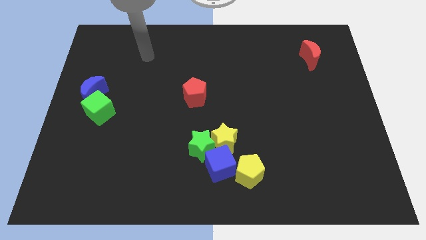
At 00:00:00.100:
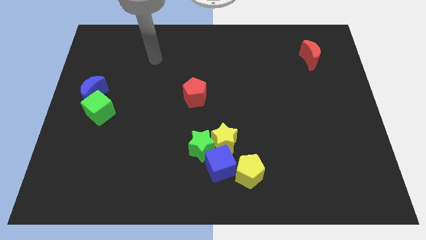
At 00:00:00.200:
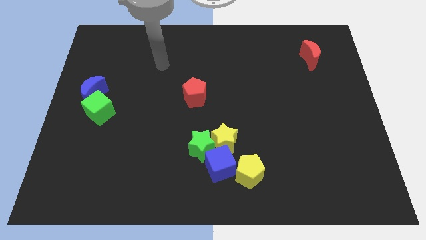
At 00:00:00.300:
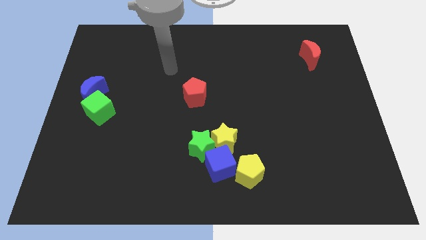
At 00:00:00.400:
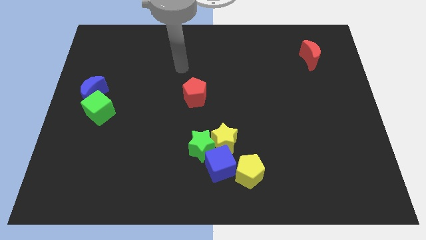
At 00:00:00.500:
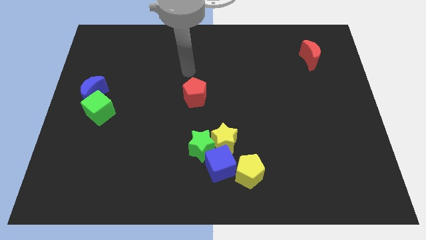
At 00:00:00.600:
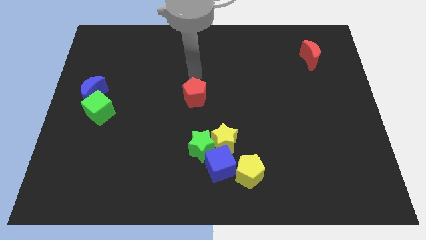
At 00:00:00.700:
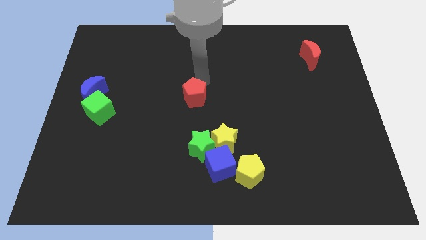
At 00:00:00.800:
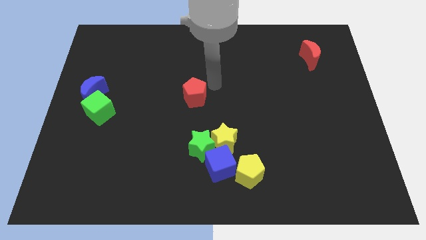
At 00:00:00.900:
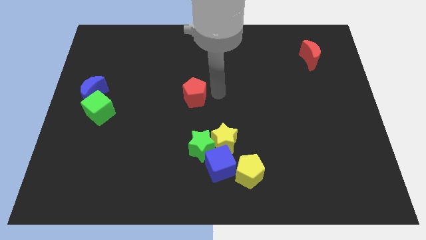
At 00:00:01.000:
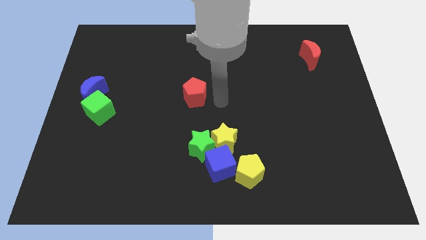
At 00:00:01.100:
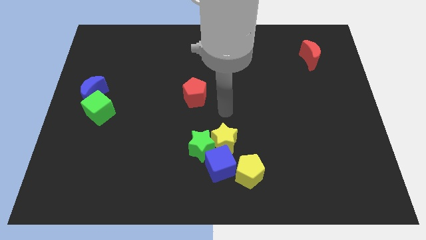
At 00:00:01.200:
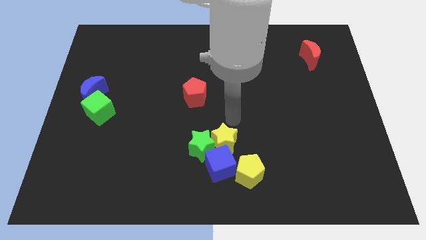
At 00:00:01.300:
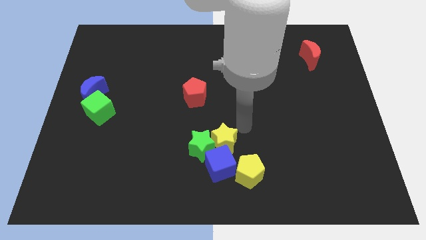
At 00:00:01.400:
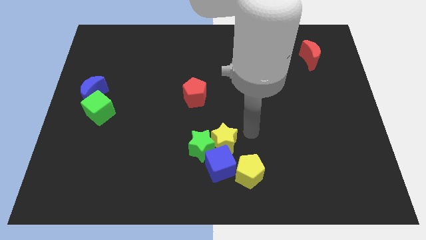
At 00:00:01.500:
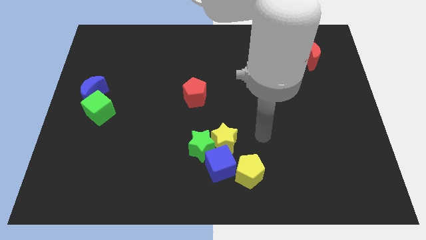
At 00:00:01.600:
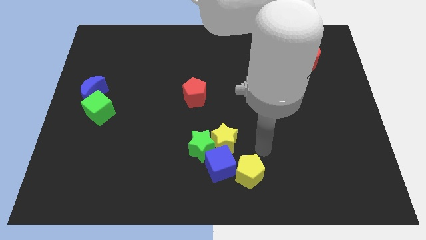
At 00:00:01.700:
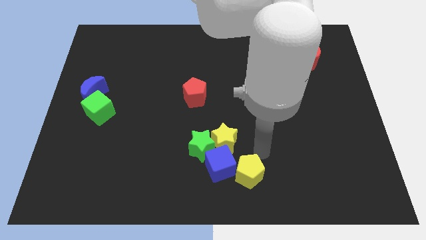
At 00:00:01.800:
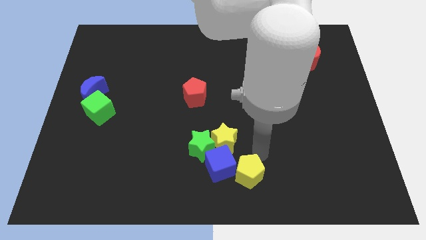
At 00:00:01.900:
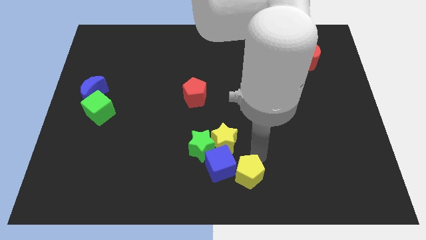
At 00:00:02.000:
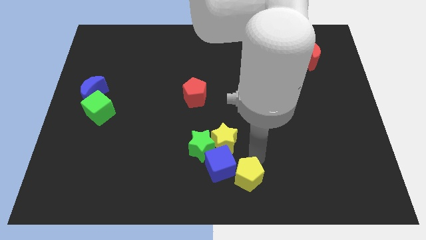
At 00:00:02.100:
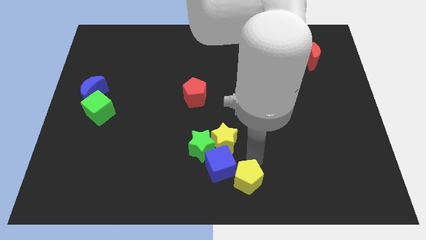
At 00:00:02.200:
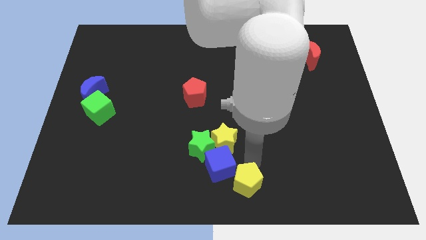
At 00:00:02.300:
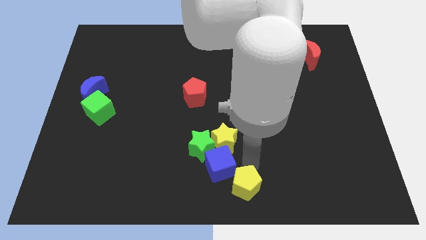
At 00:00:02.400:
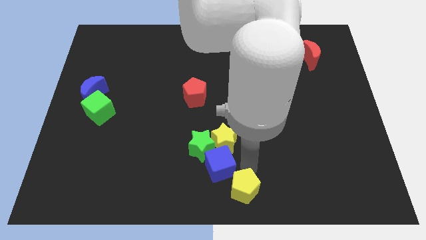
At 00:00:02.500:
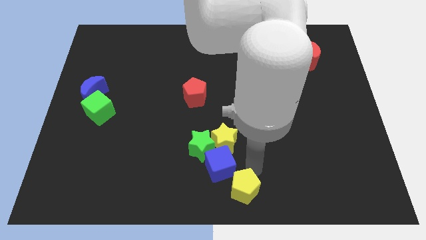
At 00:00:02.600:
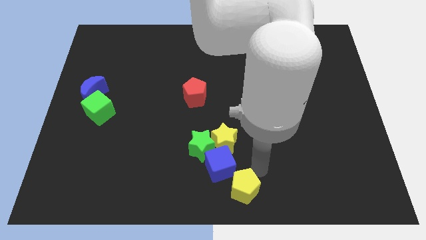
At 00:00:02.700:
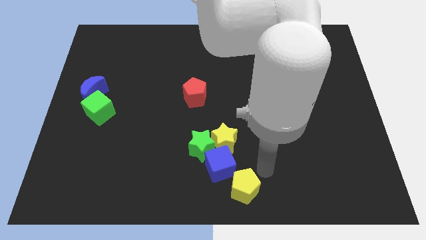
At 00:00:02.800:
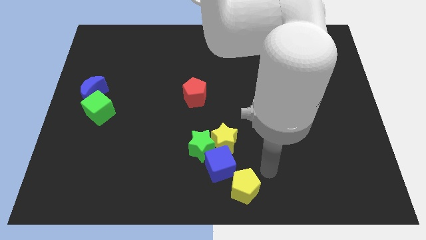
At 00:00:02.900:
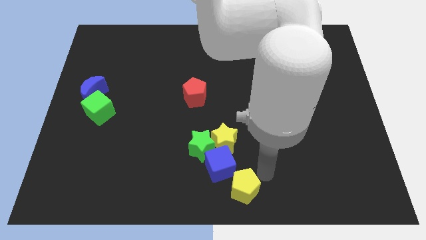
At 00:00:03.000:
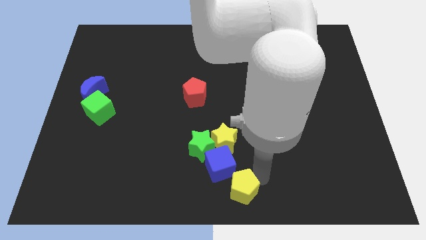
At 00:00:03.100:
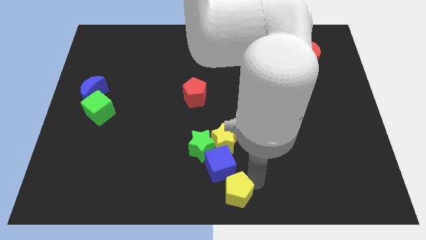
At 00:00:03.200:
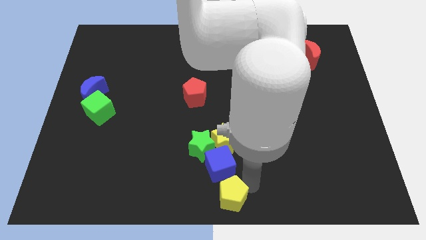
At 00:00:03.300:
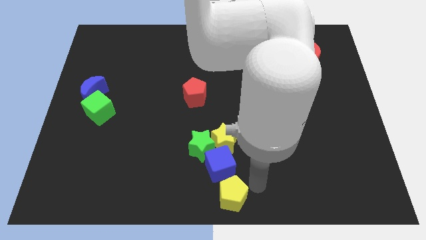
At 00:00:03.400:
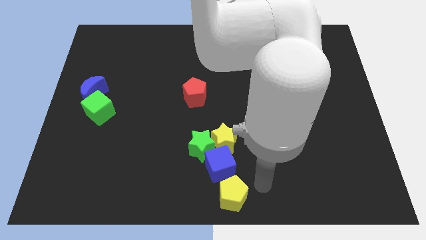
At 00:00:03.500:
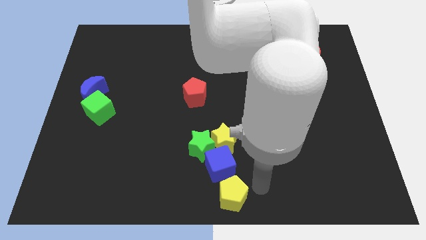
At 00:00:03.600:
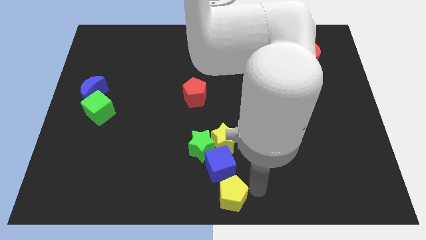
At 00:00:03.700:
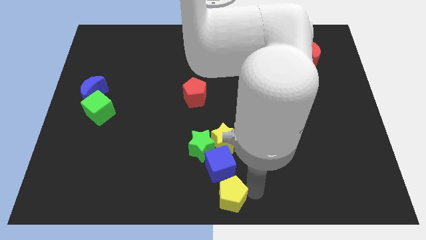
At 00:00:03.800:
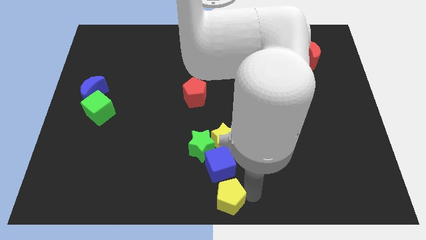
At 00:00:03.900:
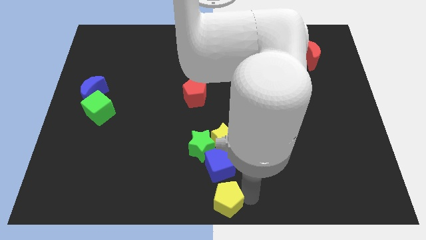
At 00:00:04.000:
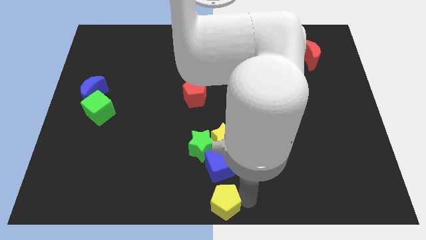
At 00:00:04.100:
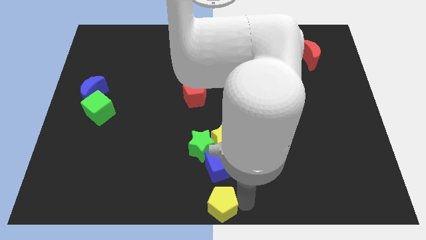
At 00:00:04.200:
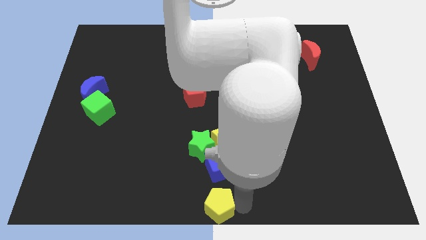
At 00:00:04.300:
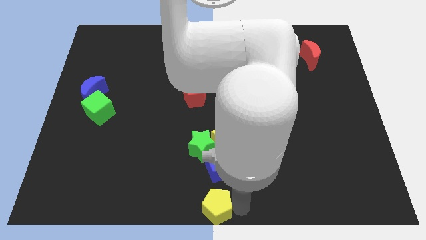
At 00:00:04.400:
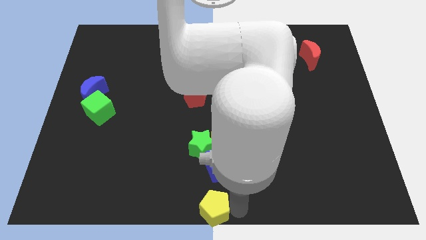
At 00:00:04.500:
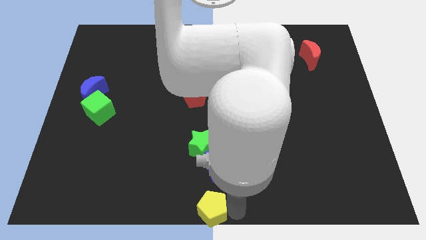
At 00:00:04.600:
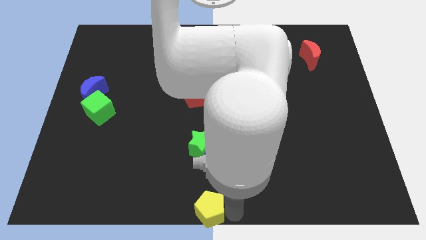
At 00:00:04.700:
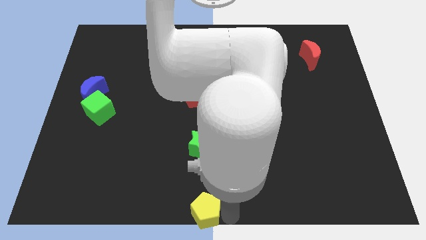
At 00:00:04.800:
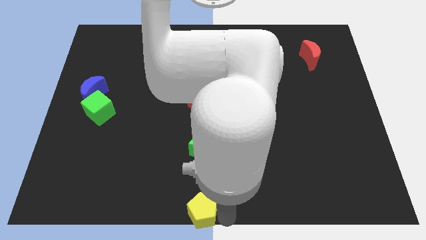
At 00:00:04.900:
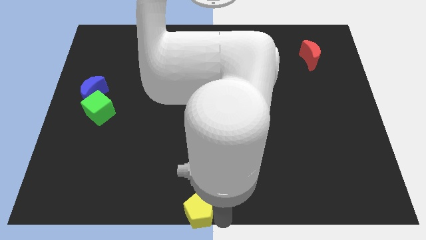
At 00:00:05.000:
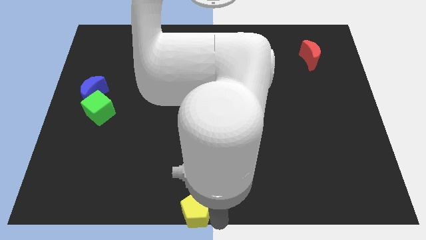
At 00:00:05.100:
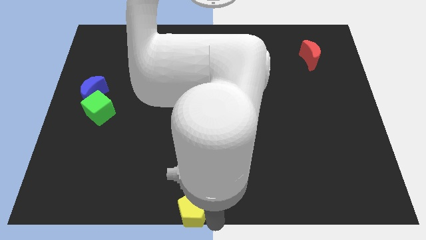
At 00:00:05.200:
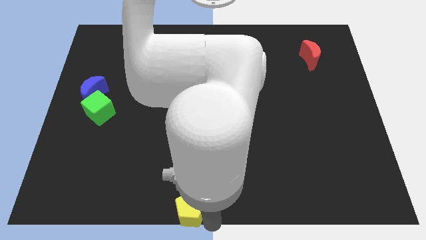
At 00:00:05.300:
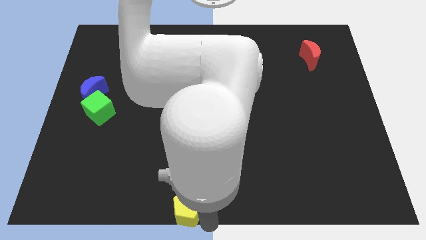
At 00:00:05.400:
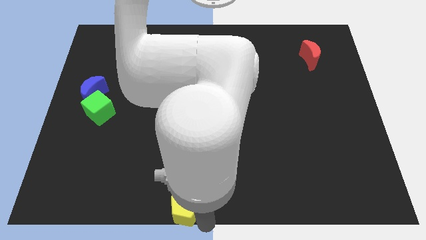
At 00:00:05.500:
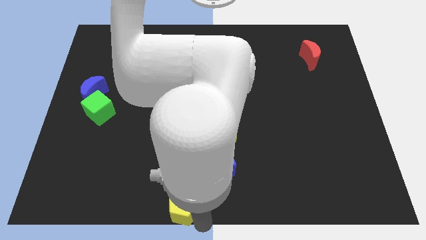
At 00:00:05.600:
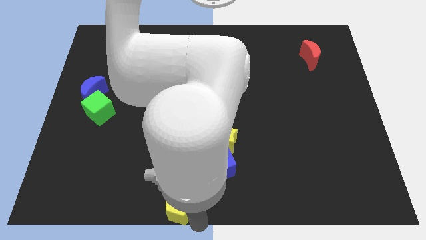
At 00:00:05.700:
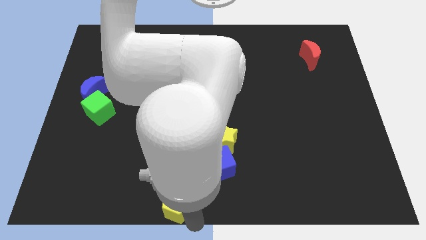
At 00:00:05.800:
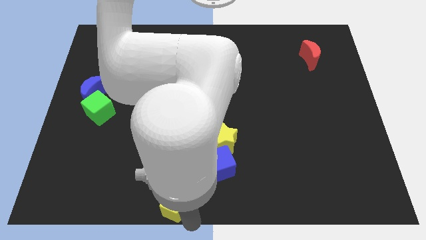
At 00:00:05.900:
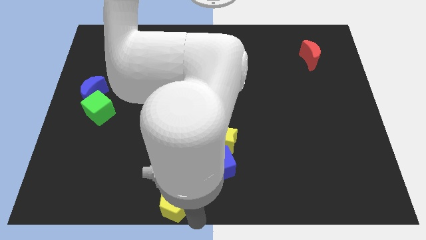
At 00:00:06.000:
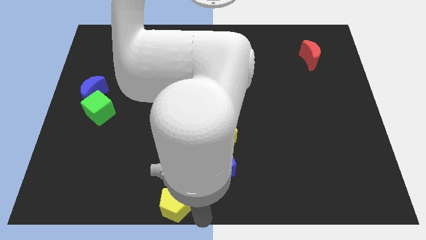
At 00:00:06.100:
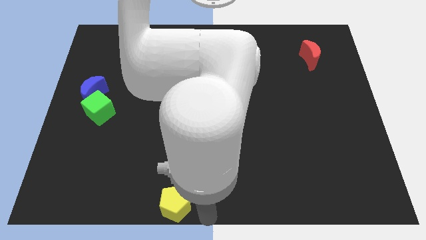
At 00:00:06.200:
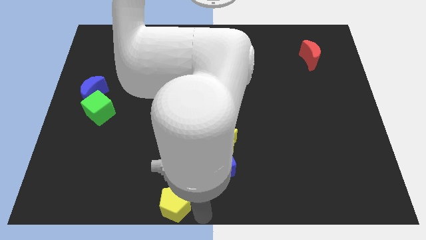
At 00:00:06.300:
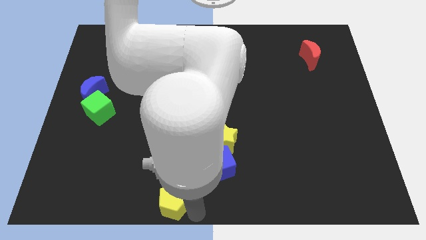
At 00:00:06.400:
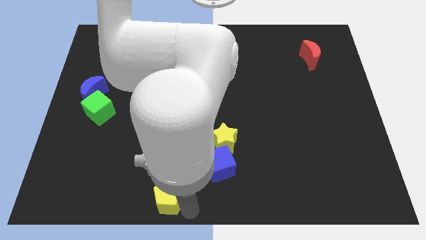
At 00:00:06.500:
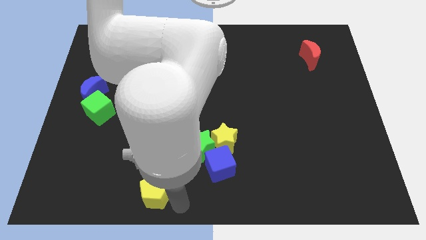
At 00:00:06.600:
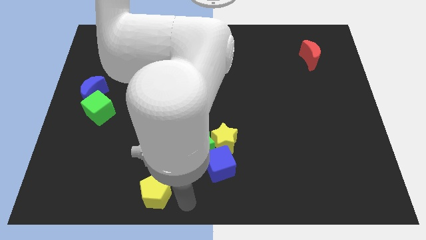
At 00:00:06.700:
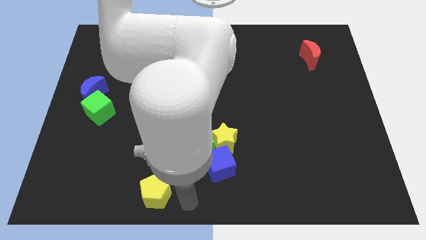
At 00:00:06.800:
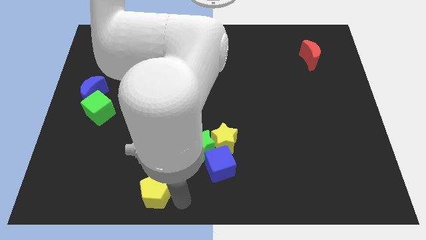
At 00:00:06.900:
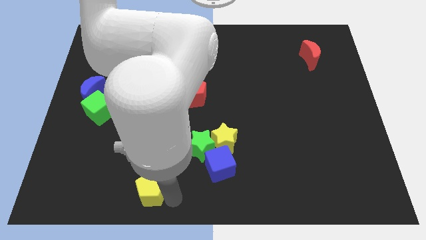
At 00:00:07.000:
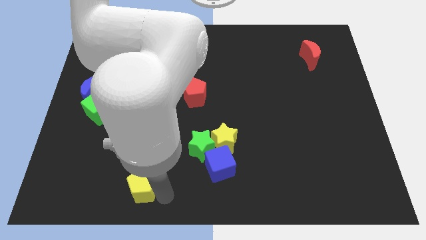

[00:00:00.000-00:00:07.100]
push the yellow pentagon to the left

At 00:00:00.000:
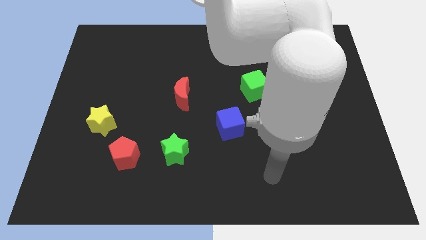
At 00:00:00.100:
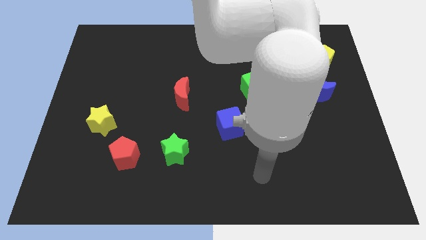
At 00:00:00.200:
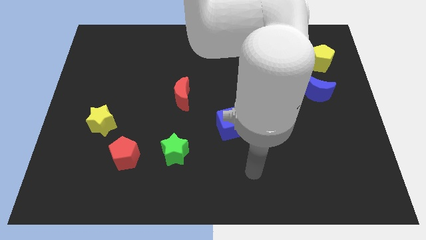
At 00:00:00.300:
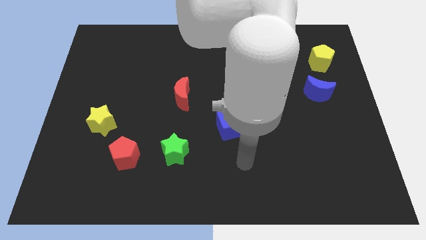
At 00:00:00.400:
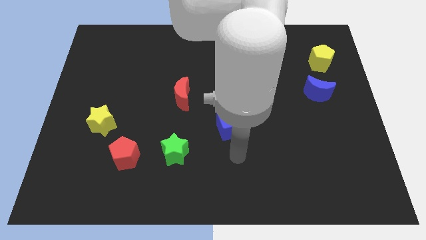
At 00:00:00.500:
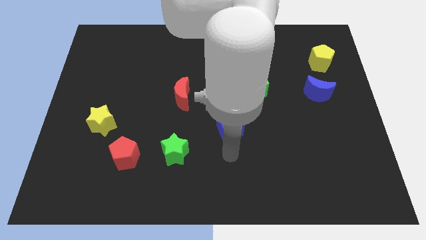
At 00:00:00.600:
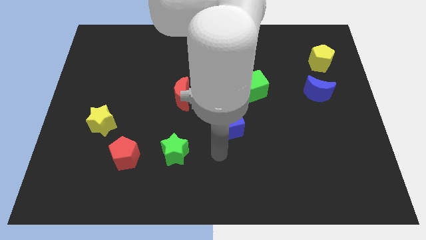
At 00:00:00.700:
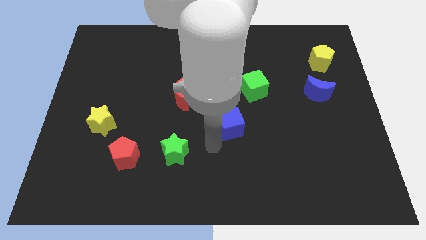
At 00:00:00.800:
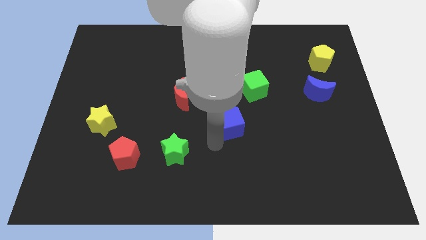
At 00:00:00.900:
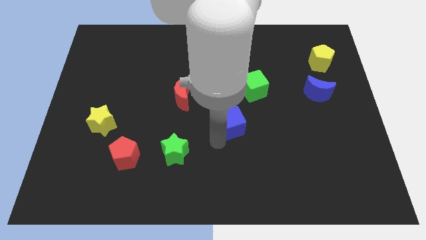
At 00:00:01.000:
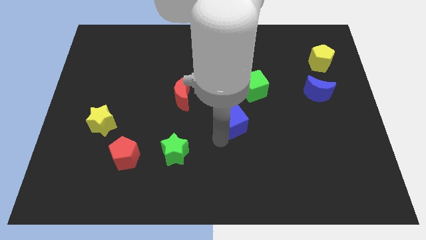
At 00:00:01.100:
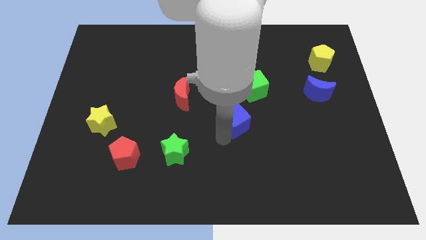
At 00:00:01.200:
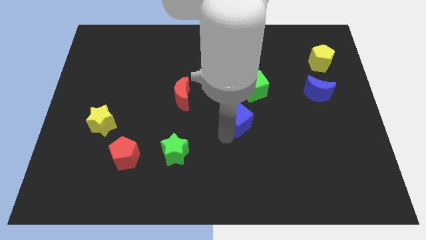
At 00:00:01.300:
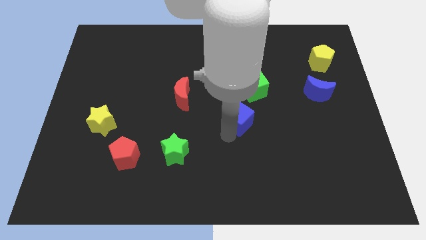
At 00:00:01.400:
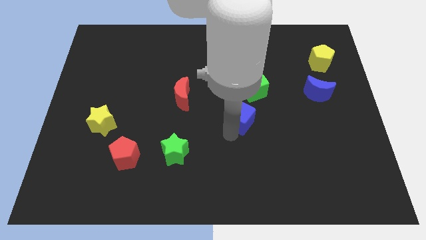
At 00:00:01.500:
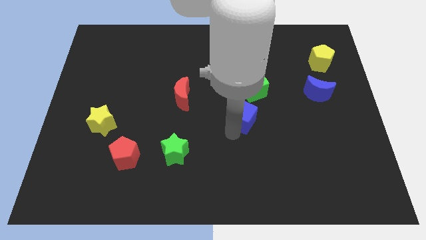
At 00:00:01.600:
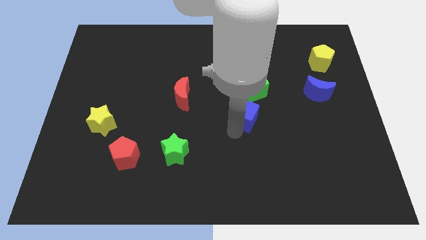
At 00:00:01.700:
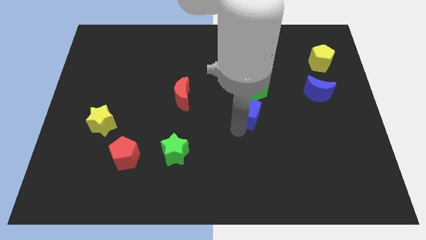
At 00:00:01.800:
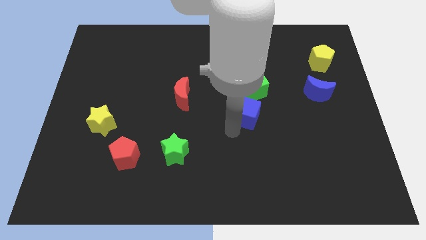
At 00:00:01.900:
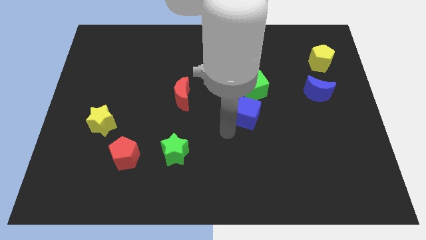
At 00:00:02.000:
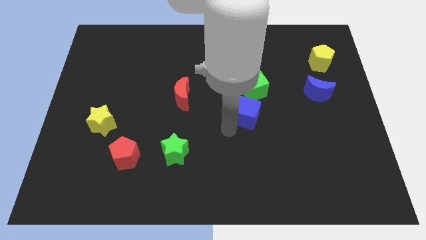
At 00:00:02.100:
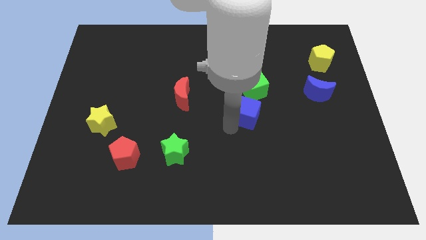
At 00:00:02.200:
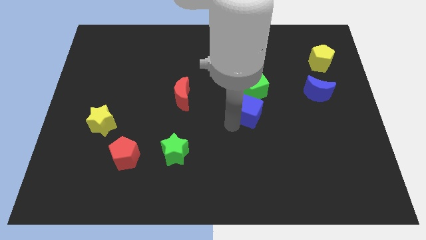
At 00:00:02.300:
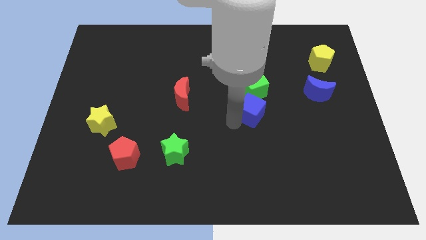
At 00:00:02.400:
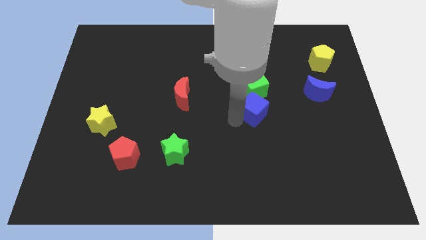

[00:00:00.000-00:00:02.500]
move the blue cube a little up and then right
